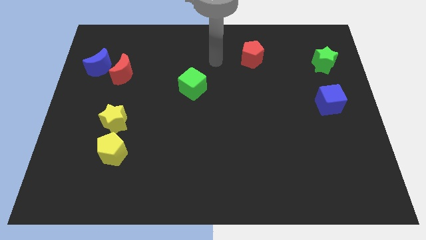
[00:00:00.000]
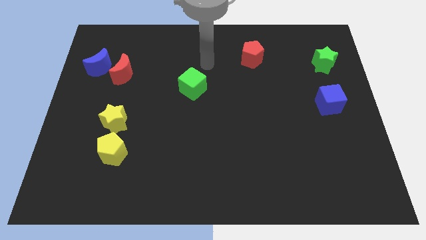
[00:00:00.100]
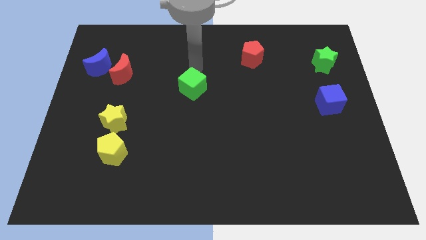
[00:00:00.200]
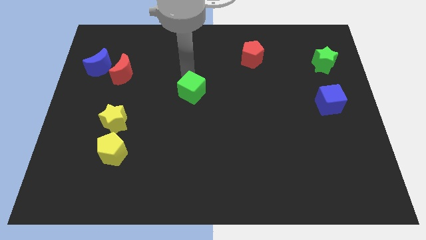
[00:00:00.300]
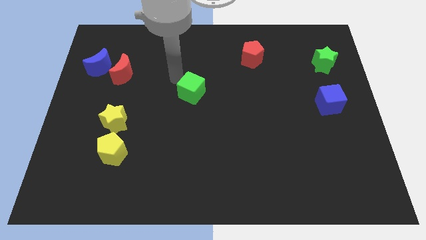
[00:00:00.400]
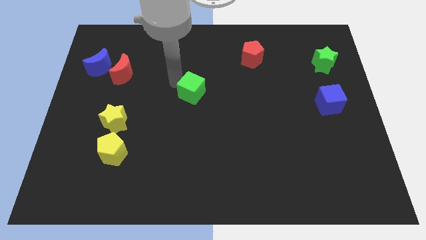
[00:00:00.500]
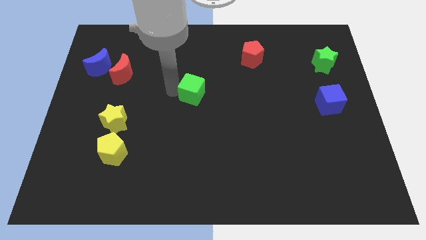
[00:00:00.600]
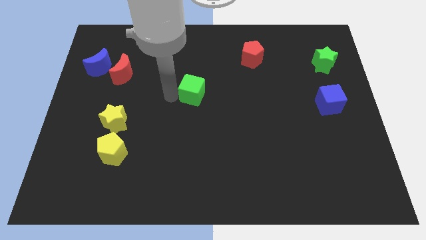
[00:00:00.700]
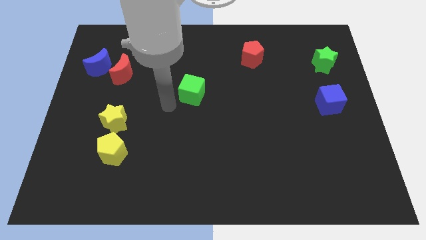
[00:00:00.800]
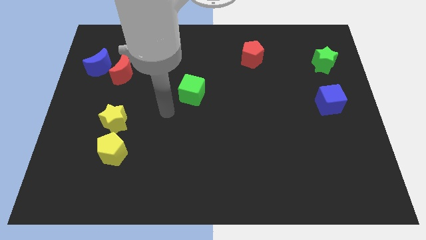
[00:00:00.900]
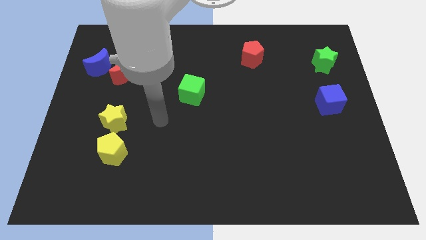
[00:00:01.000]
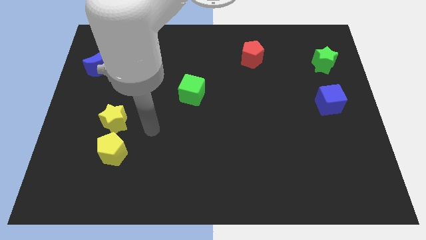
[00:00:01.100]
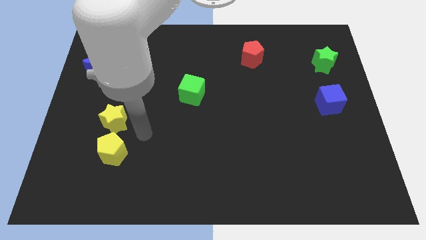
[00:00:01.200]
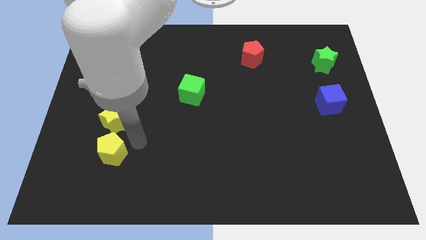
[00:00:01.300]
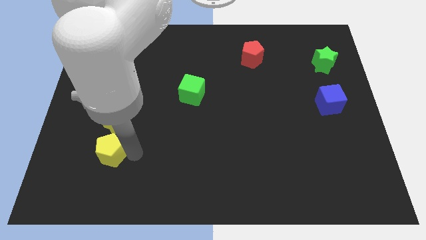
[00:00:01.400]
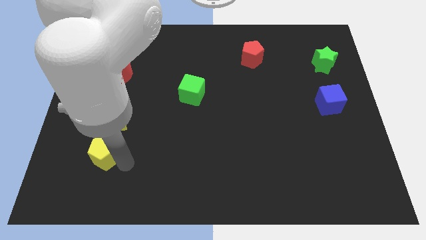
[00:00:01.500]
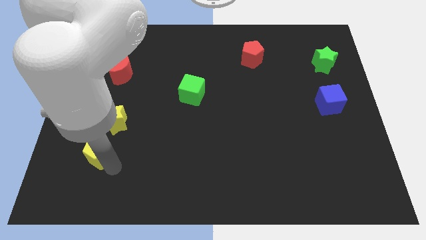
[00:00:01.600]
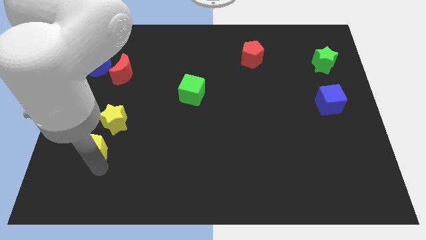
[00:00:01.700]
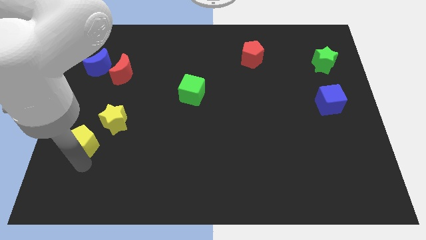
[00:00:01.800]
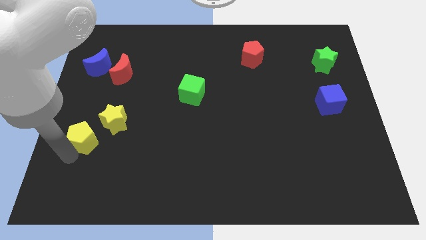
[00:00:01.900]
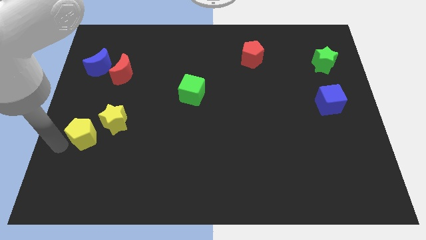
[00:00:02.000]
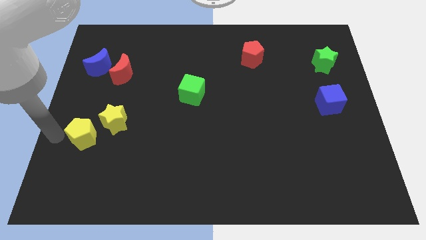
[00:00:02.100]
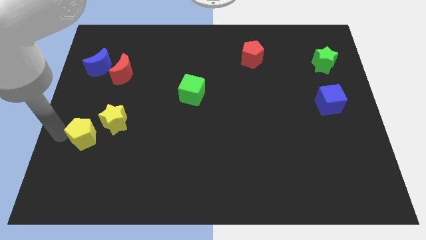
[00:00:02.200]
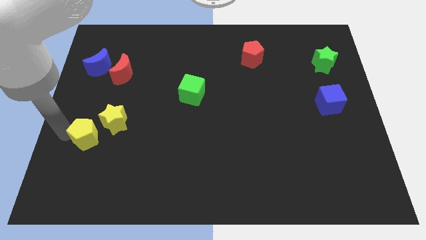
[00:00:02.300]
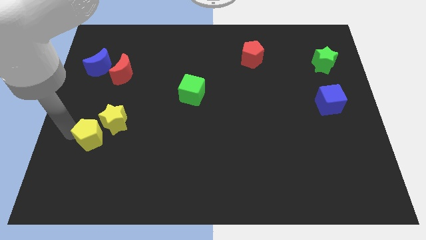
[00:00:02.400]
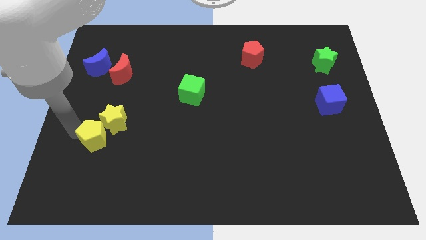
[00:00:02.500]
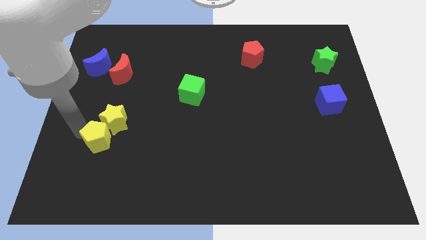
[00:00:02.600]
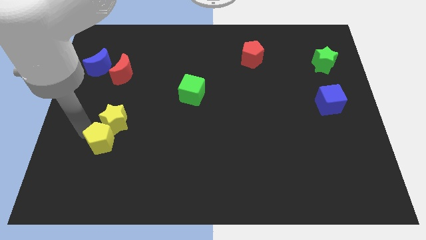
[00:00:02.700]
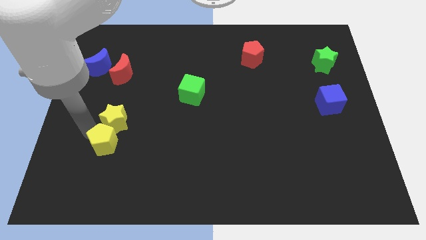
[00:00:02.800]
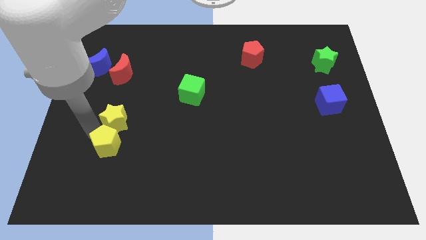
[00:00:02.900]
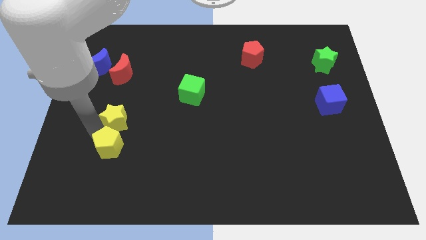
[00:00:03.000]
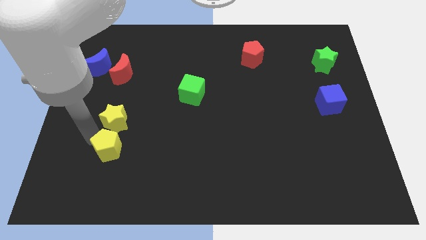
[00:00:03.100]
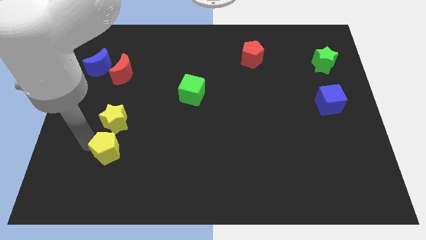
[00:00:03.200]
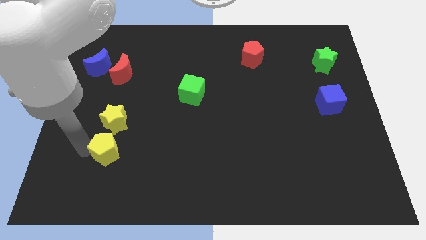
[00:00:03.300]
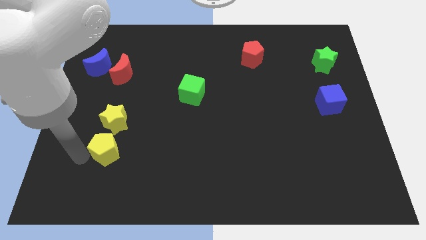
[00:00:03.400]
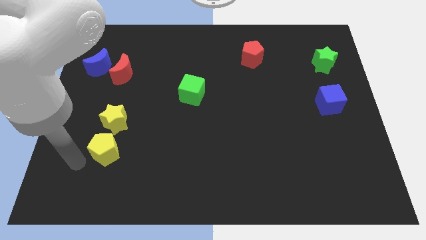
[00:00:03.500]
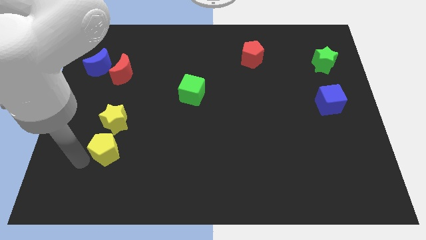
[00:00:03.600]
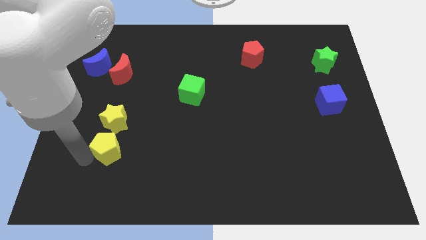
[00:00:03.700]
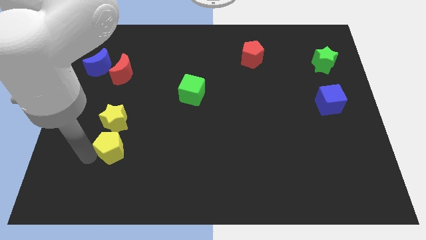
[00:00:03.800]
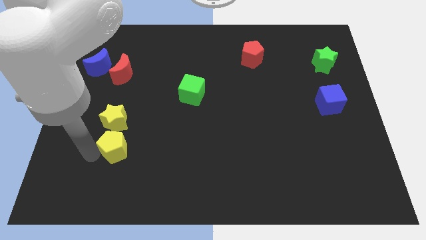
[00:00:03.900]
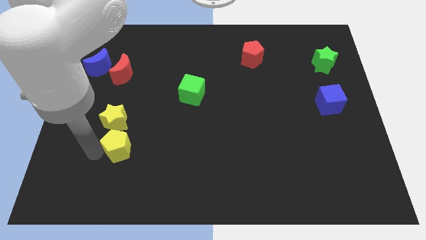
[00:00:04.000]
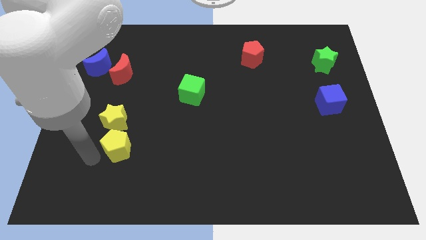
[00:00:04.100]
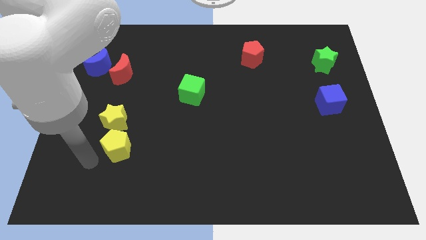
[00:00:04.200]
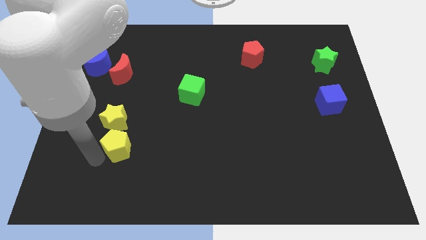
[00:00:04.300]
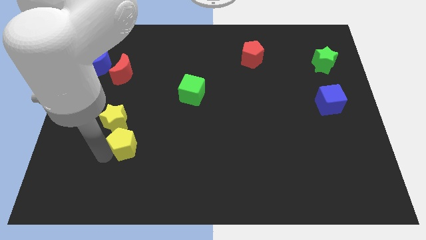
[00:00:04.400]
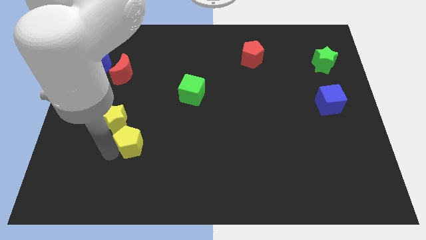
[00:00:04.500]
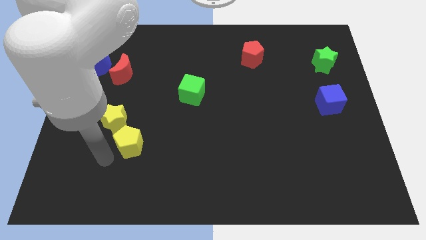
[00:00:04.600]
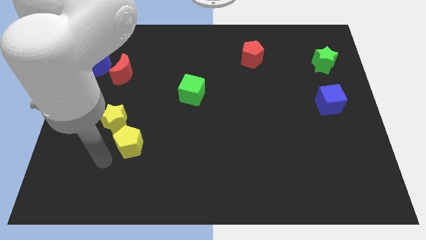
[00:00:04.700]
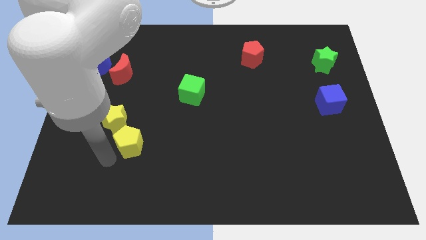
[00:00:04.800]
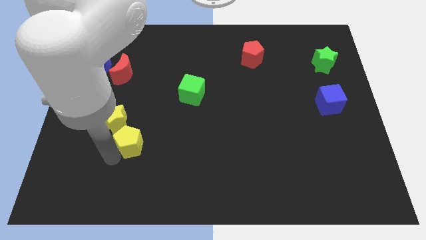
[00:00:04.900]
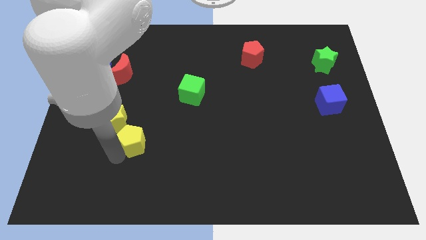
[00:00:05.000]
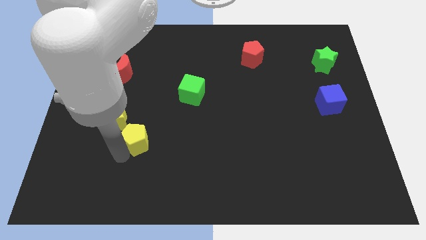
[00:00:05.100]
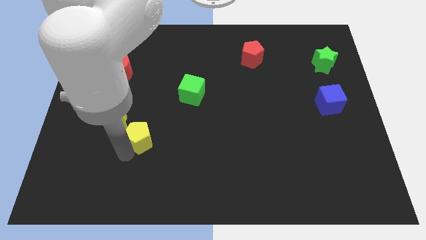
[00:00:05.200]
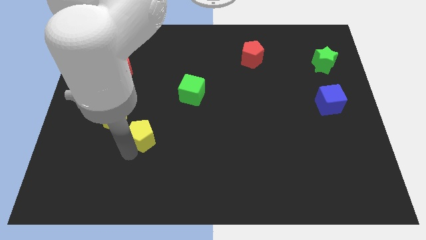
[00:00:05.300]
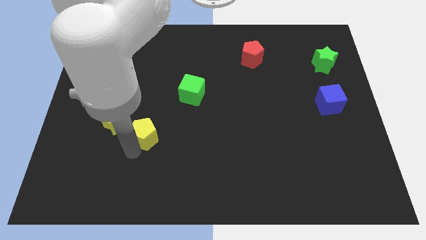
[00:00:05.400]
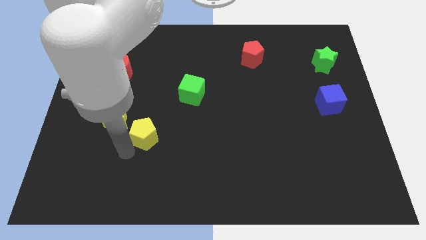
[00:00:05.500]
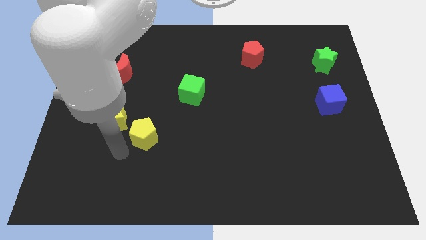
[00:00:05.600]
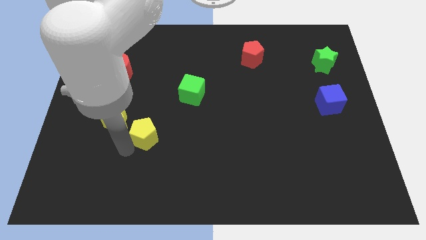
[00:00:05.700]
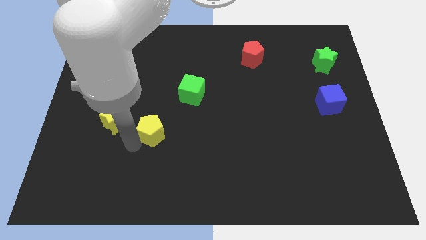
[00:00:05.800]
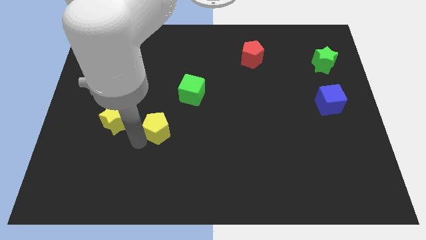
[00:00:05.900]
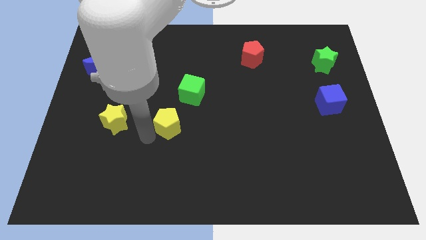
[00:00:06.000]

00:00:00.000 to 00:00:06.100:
push the yellow pentagon to the middle of the board
